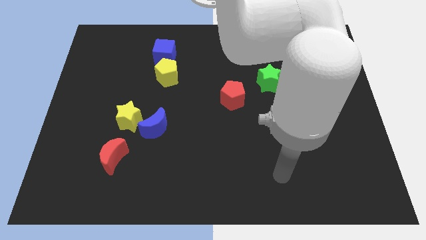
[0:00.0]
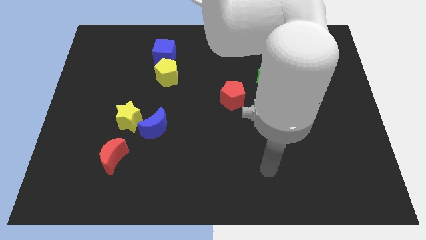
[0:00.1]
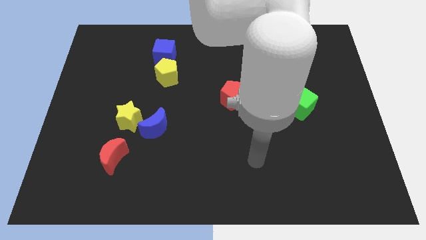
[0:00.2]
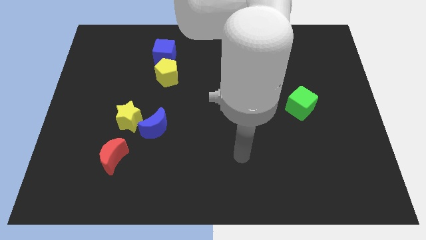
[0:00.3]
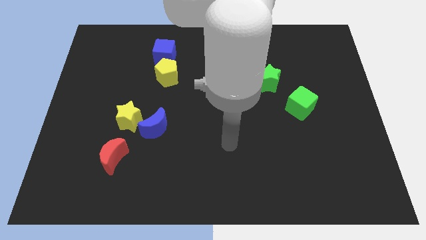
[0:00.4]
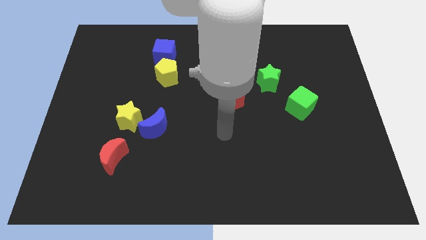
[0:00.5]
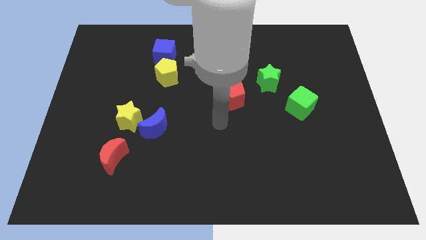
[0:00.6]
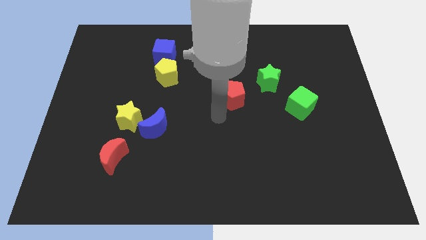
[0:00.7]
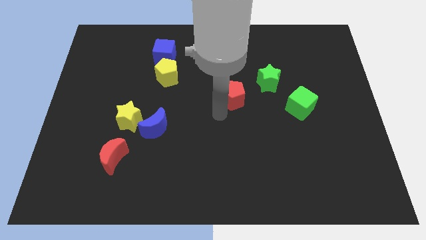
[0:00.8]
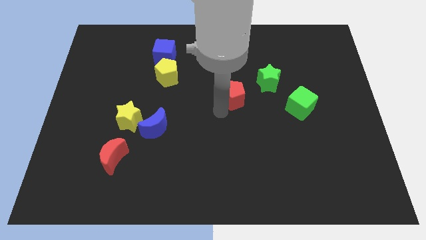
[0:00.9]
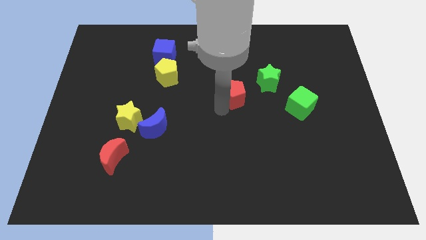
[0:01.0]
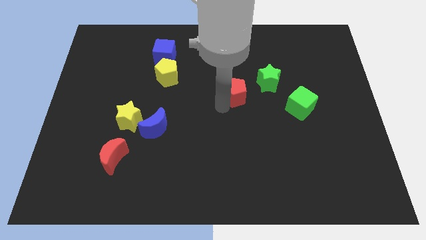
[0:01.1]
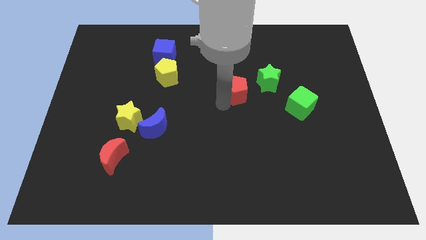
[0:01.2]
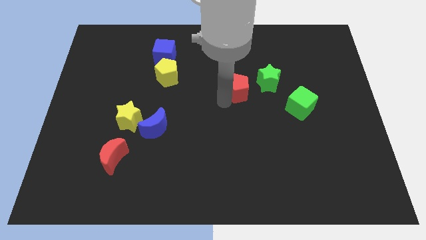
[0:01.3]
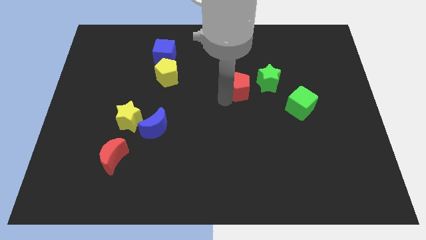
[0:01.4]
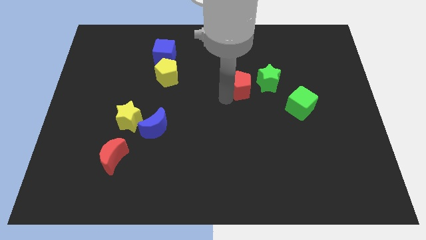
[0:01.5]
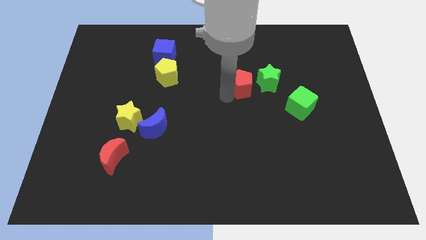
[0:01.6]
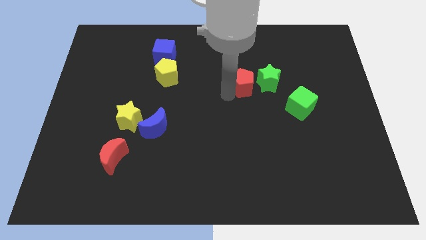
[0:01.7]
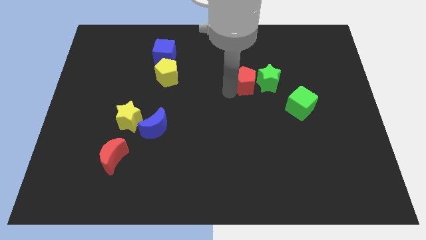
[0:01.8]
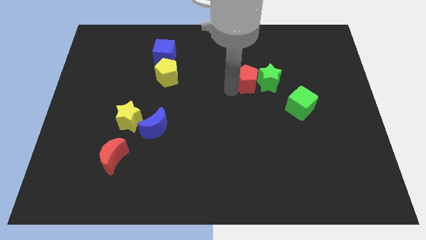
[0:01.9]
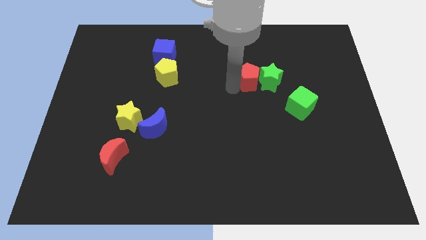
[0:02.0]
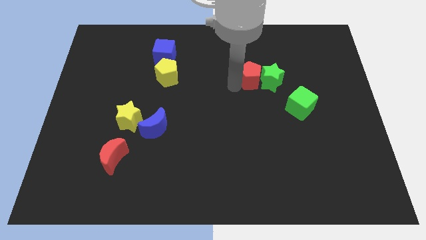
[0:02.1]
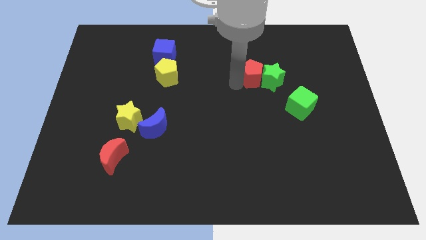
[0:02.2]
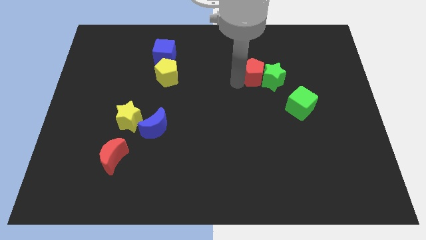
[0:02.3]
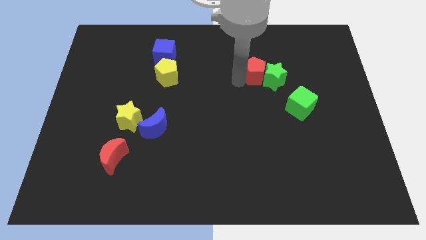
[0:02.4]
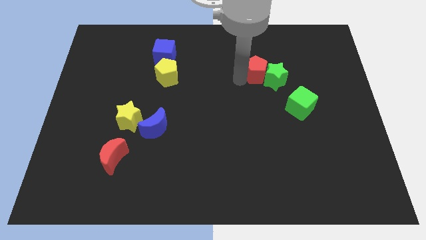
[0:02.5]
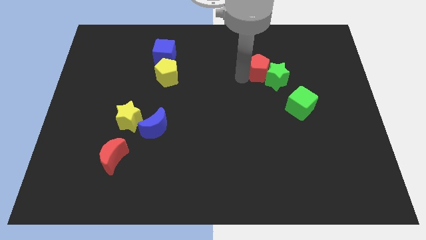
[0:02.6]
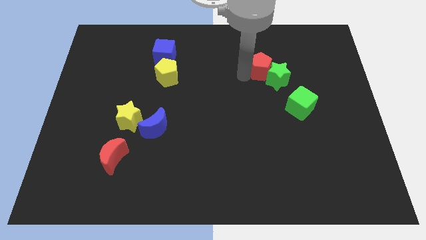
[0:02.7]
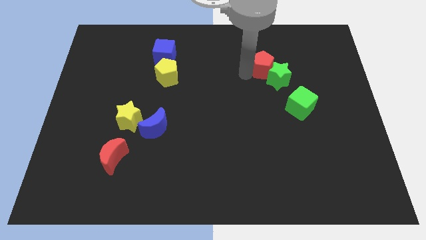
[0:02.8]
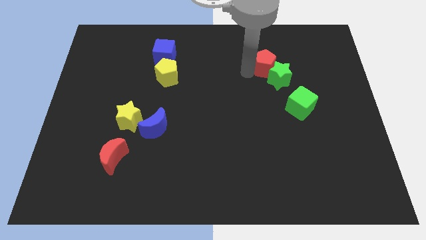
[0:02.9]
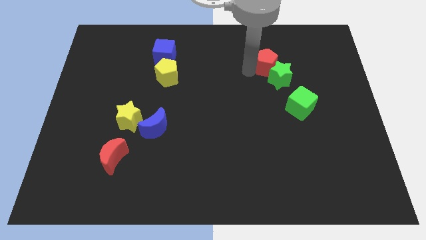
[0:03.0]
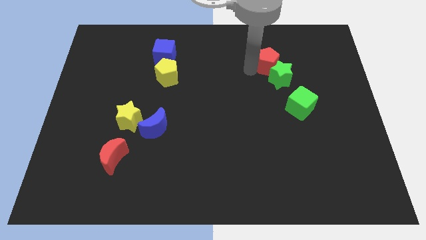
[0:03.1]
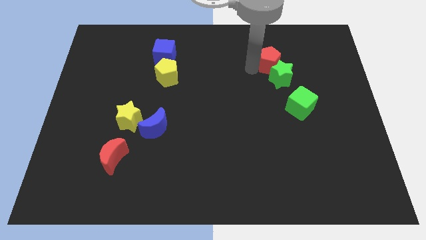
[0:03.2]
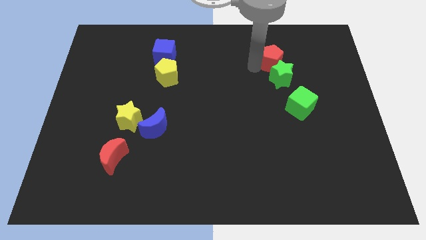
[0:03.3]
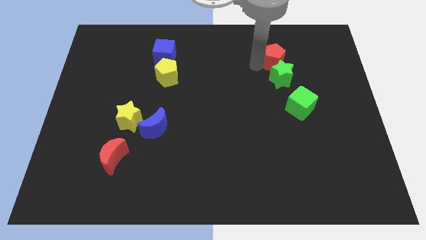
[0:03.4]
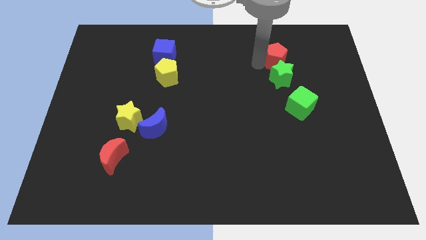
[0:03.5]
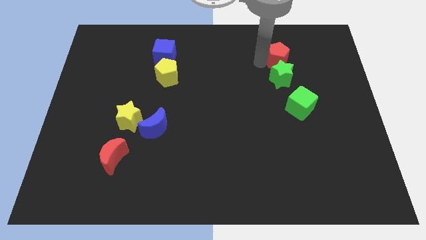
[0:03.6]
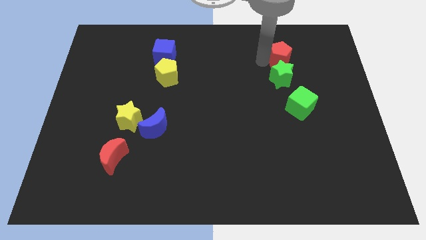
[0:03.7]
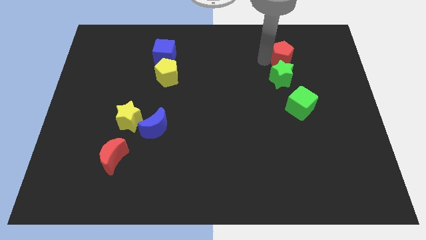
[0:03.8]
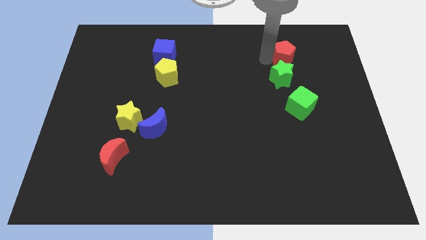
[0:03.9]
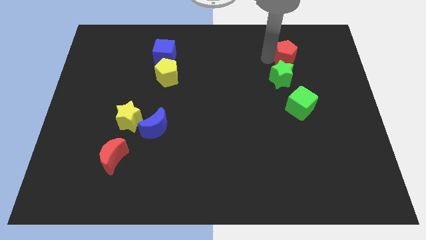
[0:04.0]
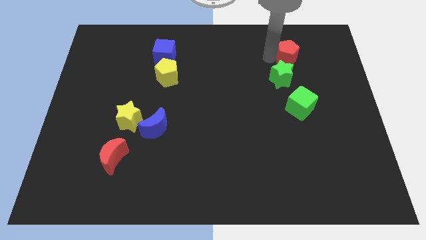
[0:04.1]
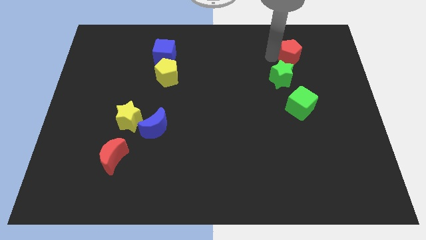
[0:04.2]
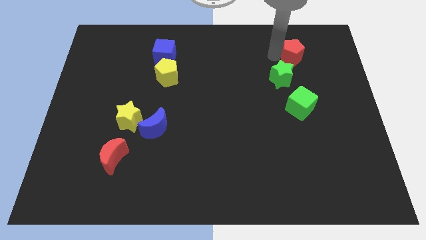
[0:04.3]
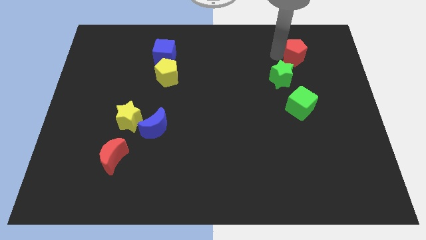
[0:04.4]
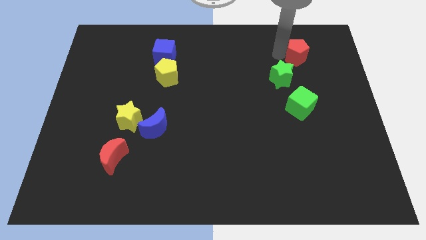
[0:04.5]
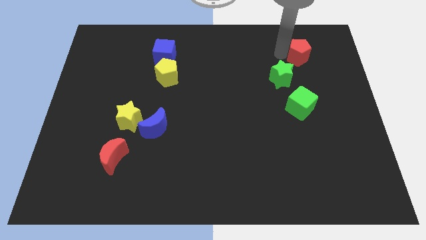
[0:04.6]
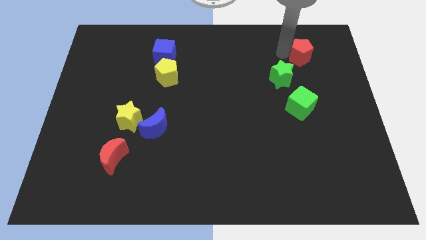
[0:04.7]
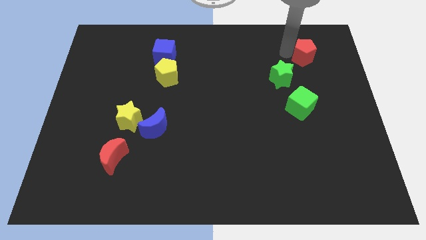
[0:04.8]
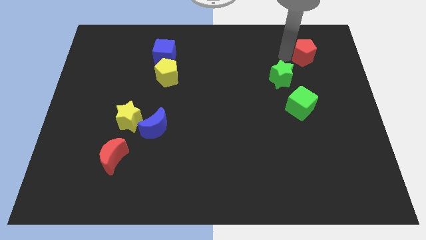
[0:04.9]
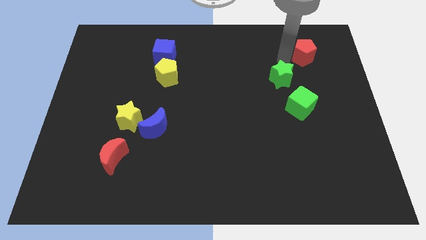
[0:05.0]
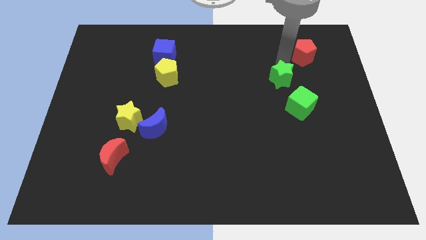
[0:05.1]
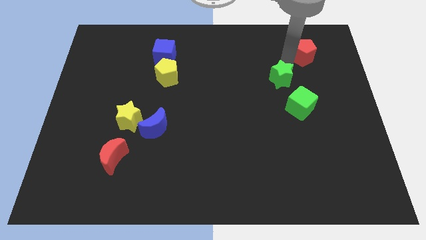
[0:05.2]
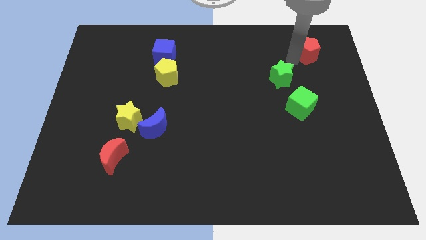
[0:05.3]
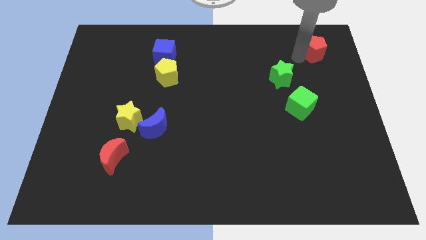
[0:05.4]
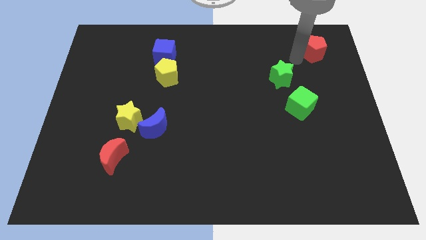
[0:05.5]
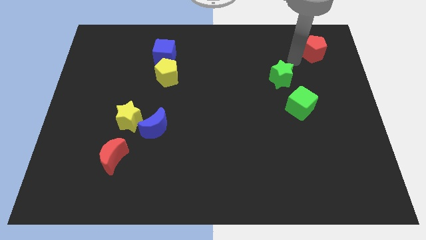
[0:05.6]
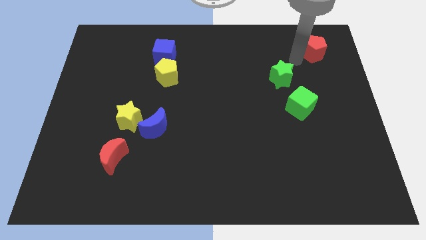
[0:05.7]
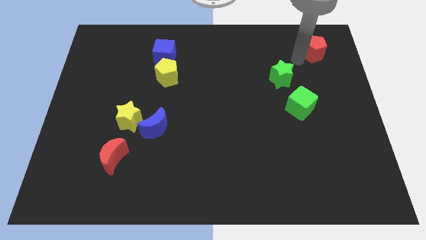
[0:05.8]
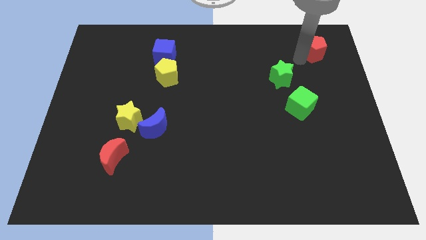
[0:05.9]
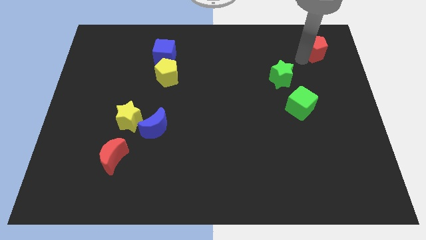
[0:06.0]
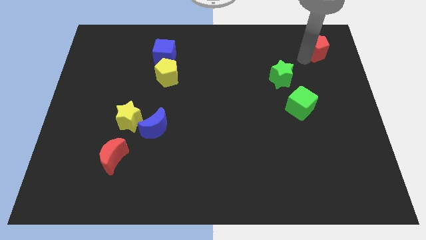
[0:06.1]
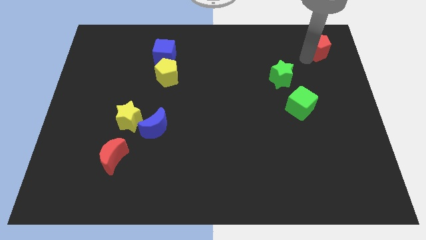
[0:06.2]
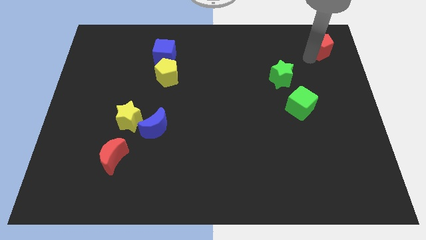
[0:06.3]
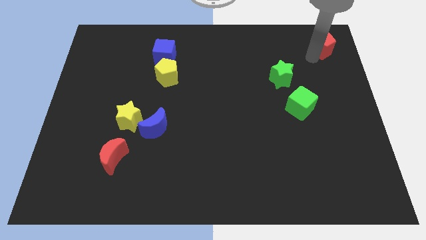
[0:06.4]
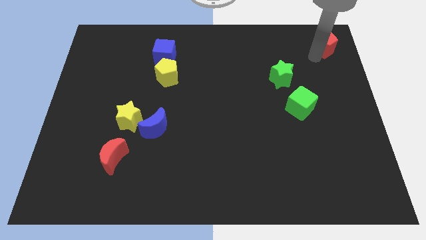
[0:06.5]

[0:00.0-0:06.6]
put the red pentagon to the top right
